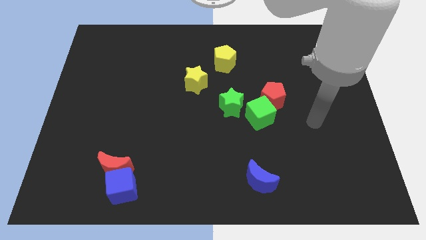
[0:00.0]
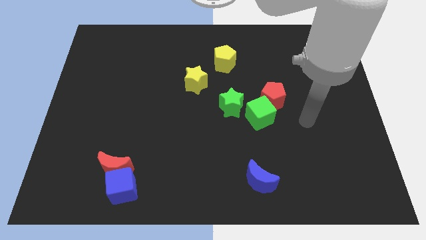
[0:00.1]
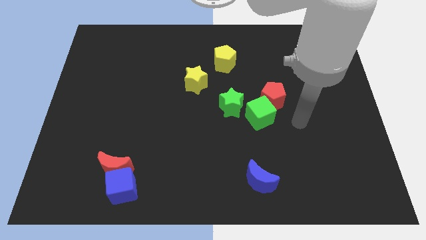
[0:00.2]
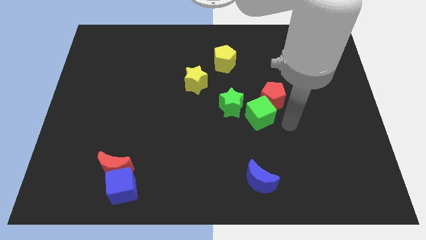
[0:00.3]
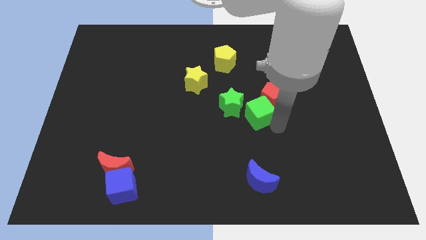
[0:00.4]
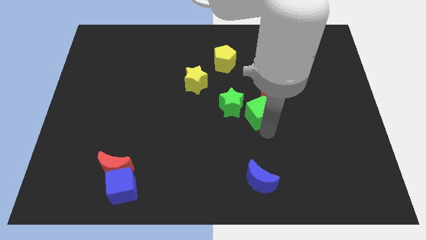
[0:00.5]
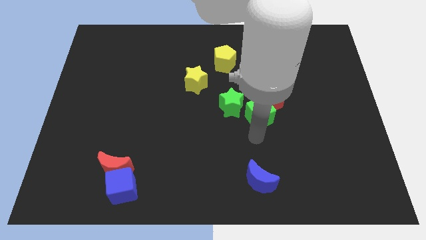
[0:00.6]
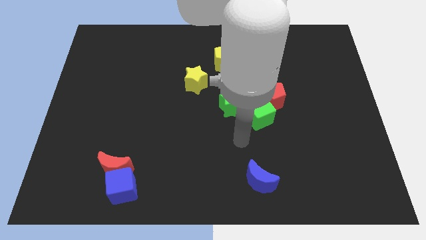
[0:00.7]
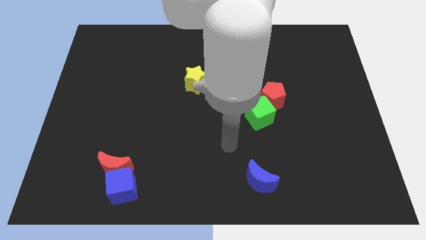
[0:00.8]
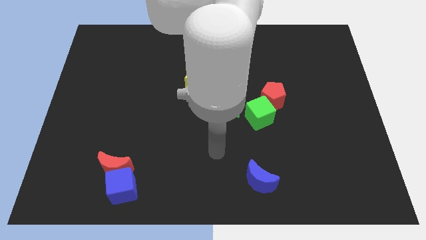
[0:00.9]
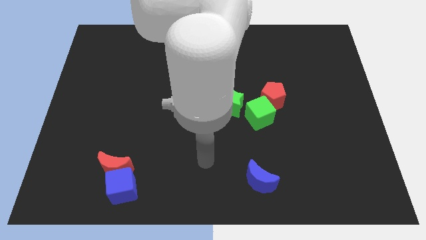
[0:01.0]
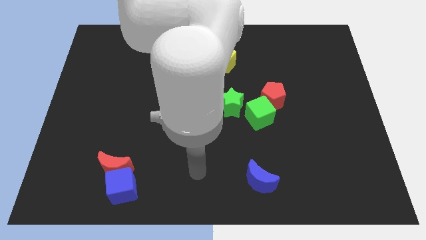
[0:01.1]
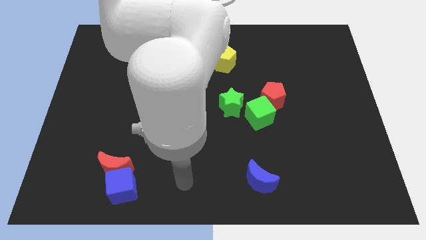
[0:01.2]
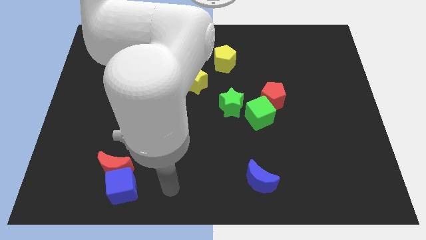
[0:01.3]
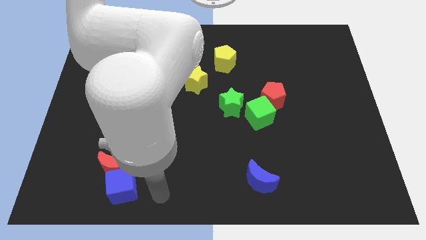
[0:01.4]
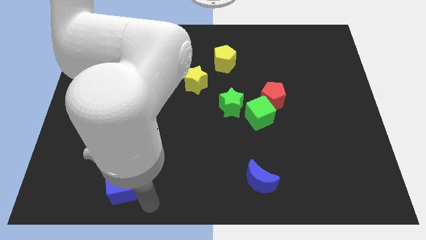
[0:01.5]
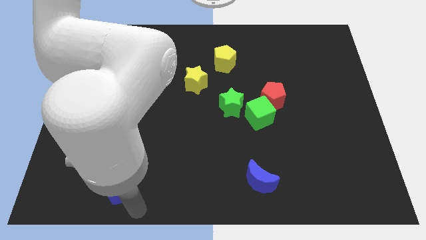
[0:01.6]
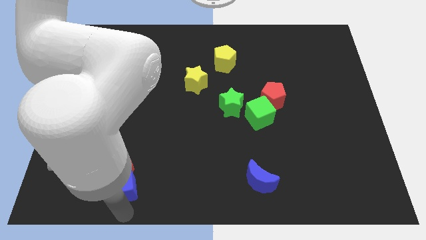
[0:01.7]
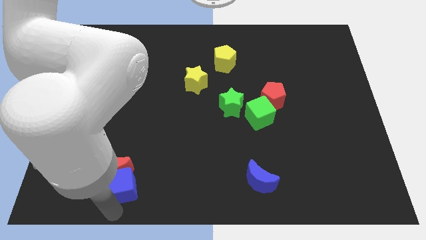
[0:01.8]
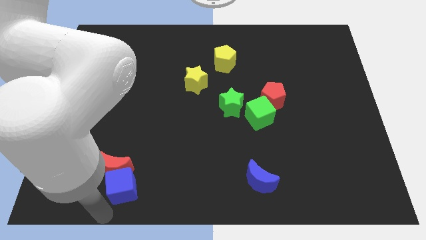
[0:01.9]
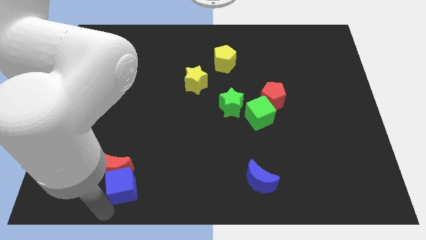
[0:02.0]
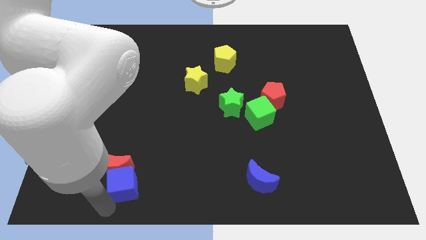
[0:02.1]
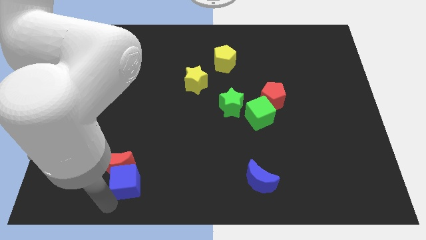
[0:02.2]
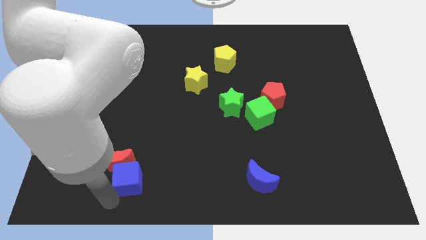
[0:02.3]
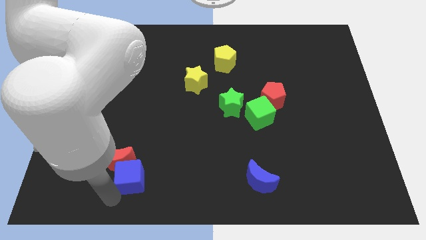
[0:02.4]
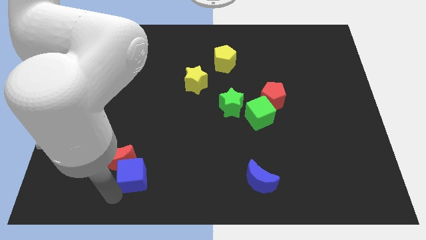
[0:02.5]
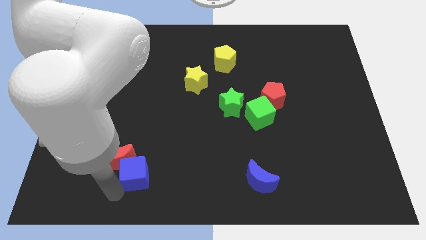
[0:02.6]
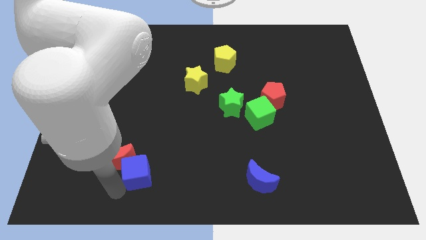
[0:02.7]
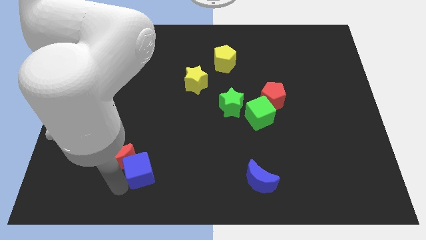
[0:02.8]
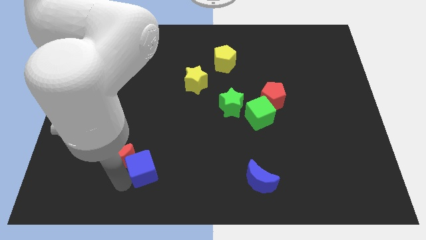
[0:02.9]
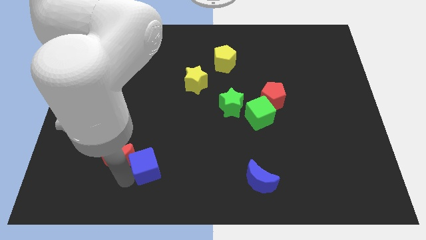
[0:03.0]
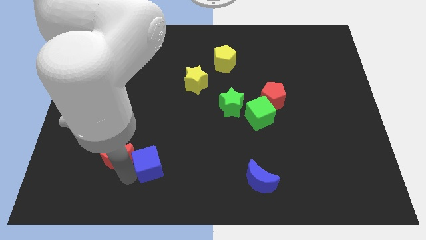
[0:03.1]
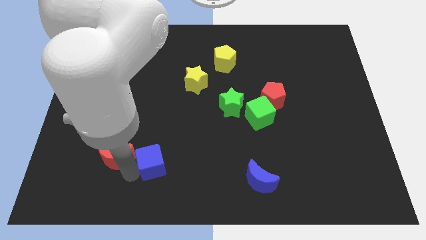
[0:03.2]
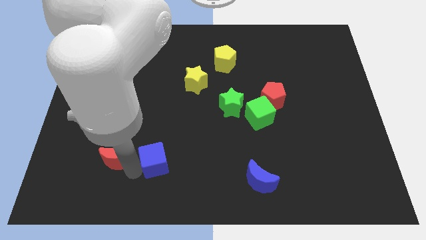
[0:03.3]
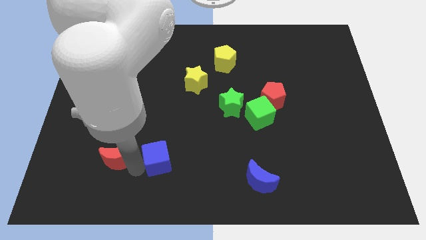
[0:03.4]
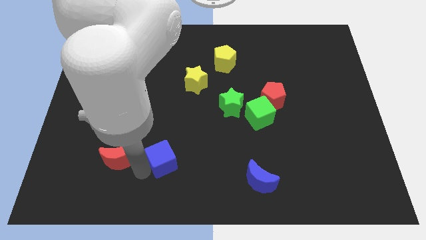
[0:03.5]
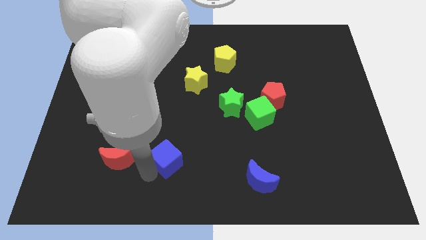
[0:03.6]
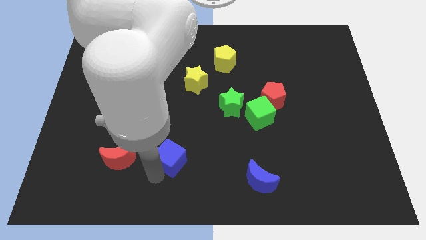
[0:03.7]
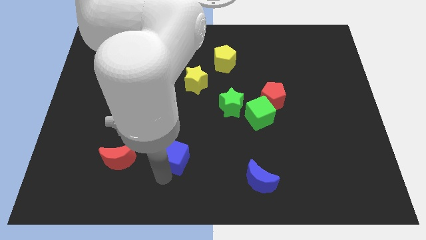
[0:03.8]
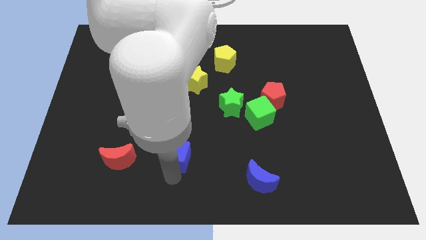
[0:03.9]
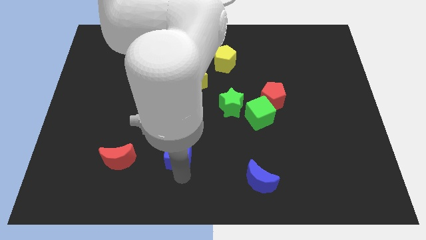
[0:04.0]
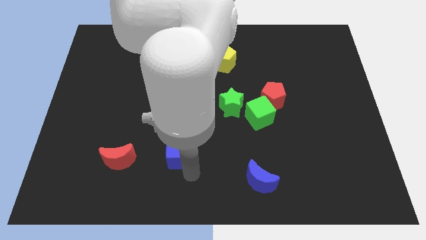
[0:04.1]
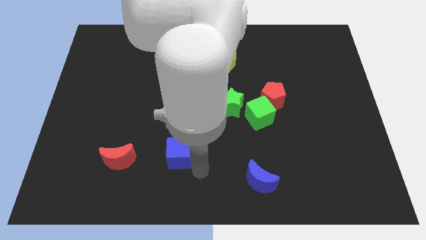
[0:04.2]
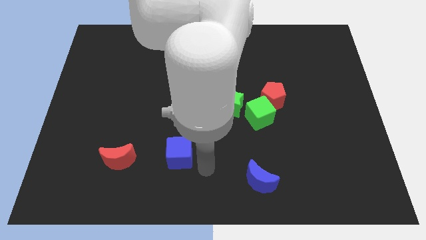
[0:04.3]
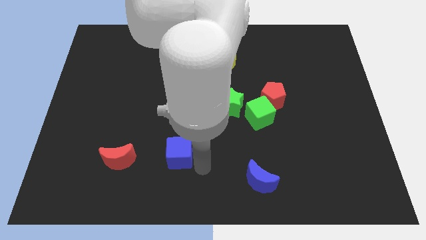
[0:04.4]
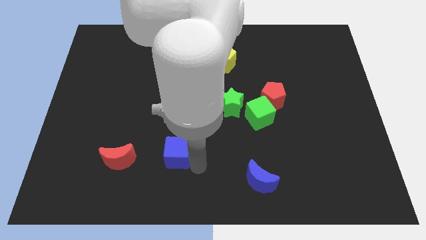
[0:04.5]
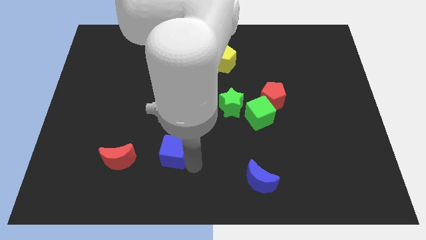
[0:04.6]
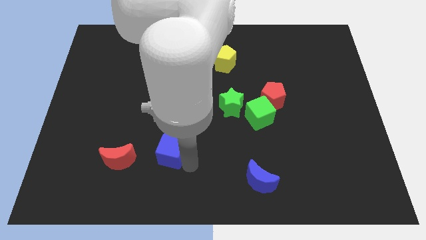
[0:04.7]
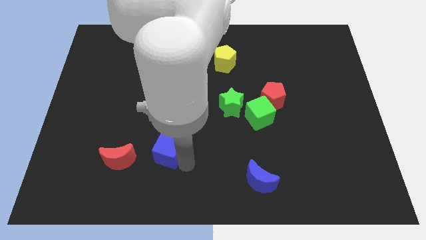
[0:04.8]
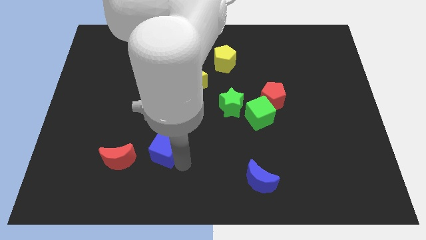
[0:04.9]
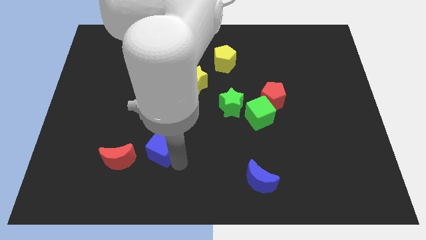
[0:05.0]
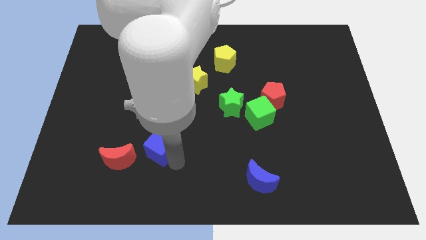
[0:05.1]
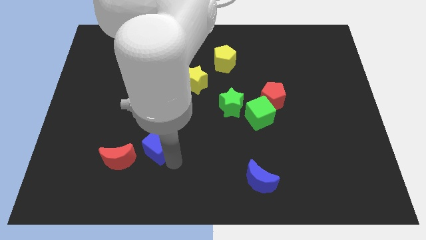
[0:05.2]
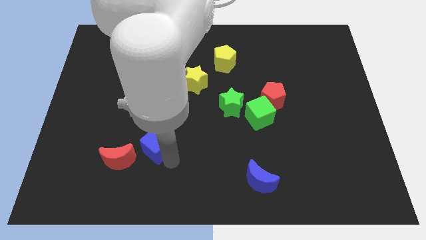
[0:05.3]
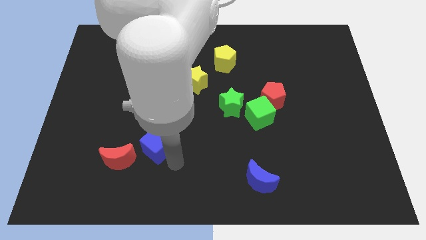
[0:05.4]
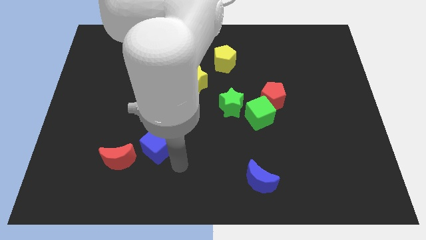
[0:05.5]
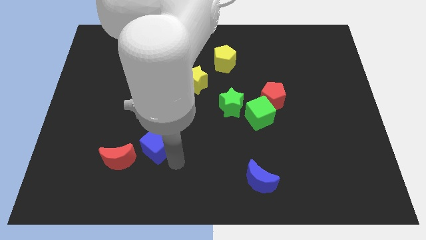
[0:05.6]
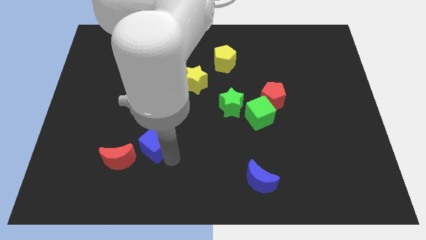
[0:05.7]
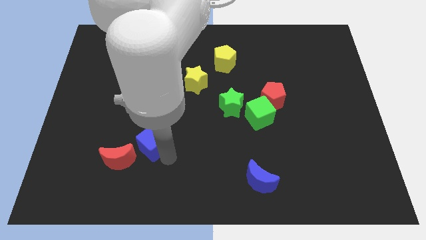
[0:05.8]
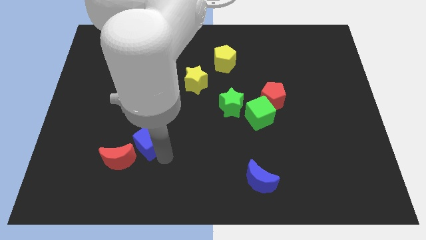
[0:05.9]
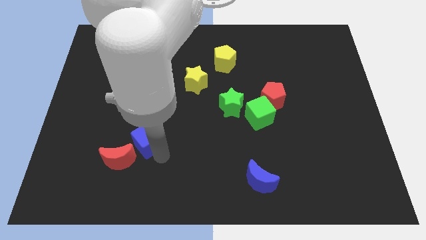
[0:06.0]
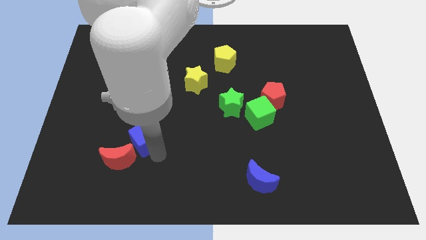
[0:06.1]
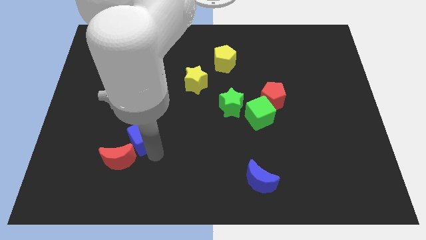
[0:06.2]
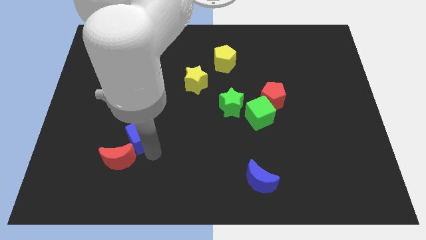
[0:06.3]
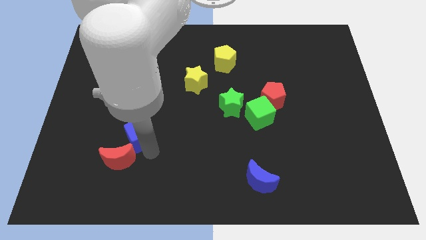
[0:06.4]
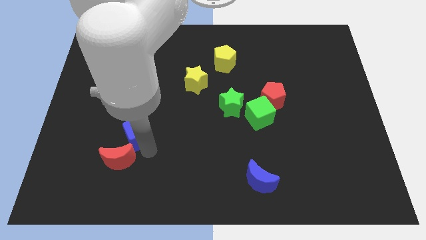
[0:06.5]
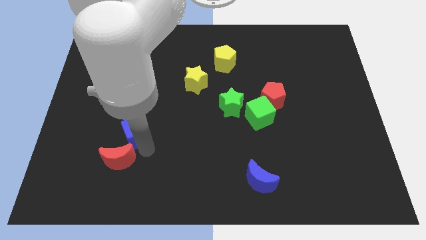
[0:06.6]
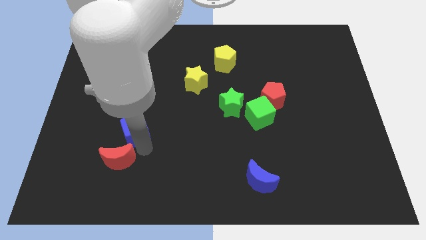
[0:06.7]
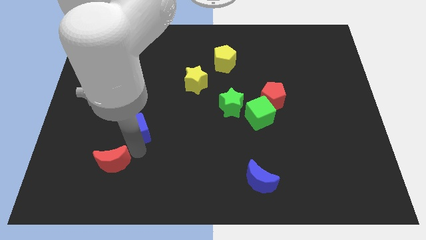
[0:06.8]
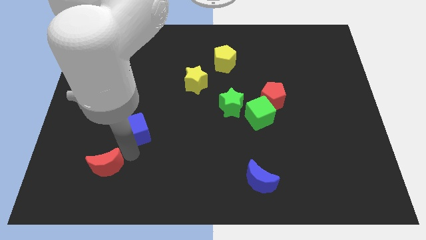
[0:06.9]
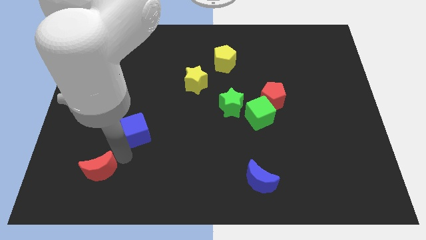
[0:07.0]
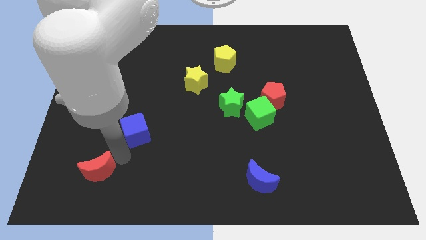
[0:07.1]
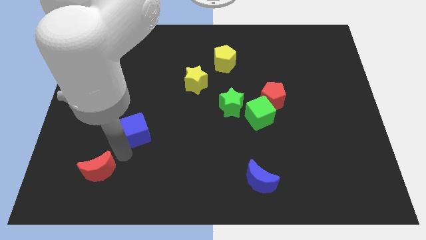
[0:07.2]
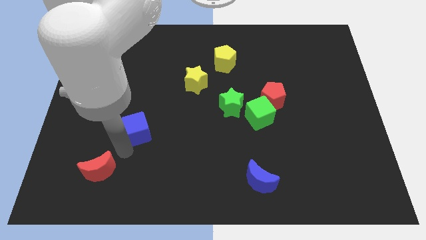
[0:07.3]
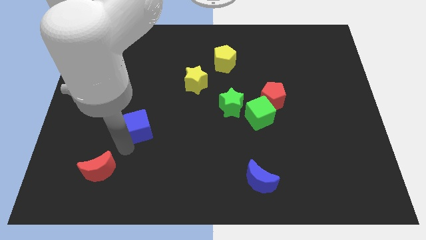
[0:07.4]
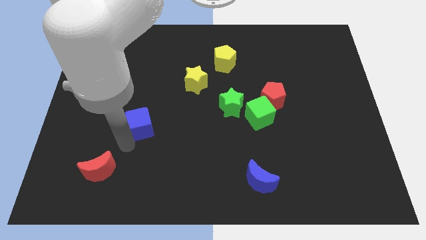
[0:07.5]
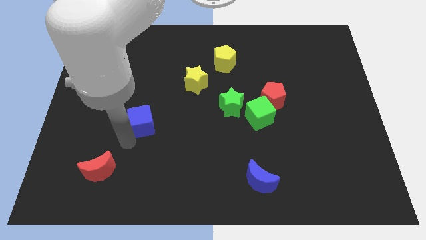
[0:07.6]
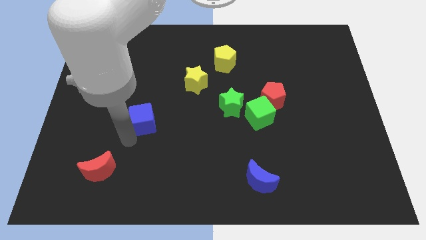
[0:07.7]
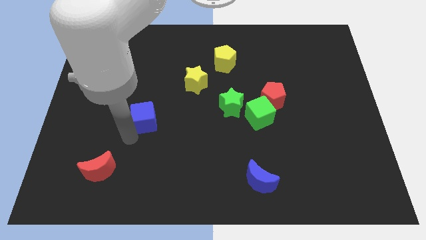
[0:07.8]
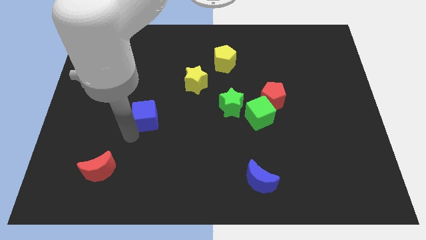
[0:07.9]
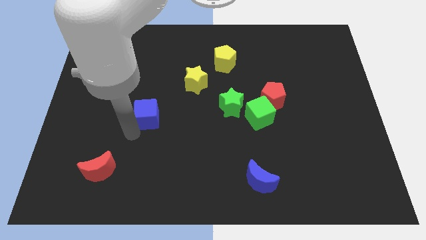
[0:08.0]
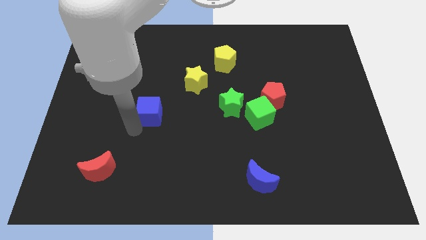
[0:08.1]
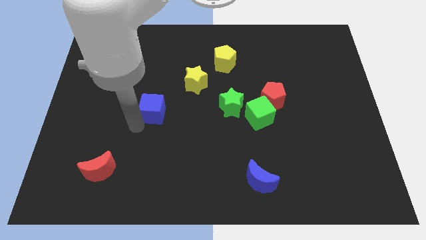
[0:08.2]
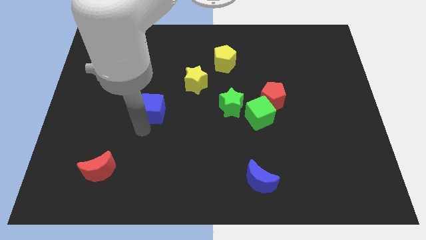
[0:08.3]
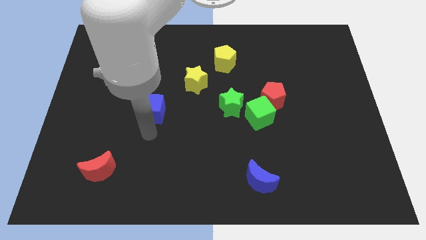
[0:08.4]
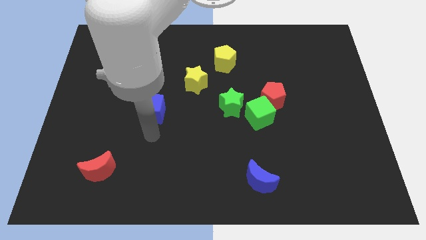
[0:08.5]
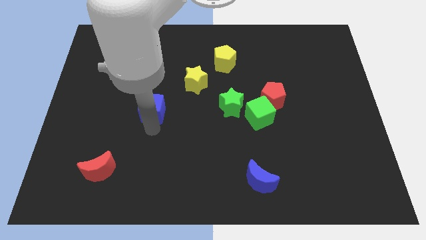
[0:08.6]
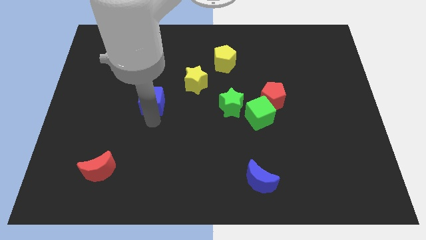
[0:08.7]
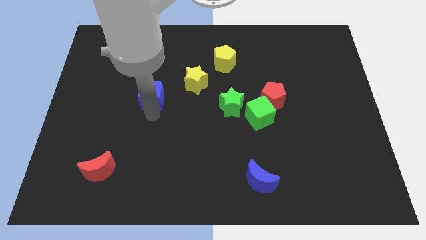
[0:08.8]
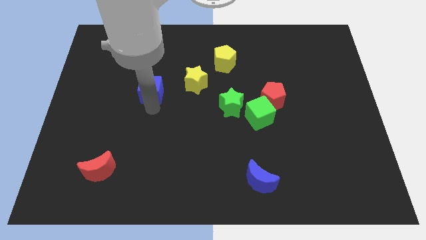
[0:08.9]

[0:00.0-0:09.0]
put the blue cube to the left of the yellow star
